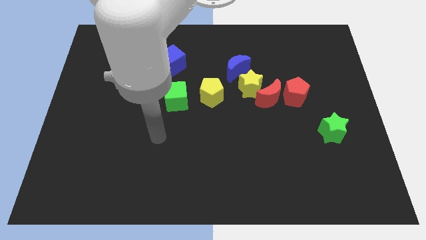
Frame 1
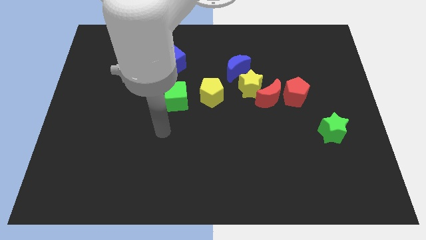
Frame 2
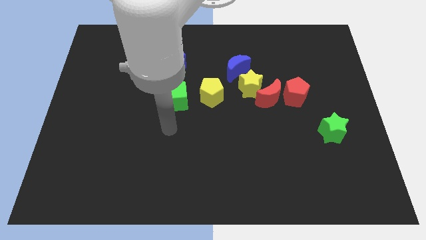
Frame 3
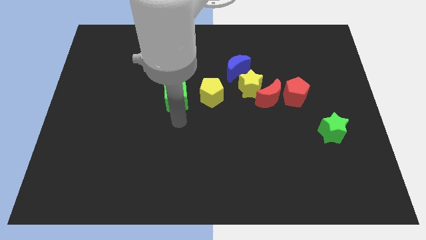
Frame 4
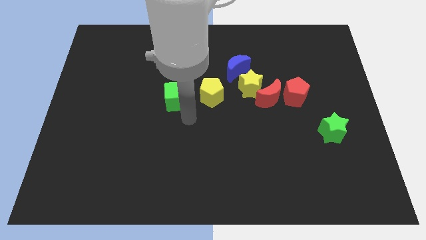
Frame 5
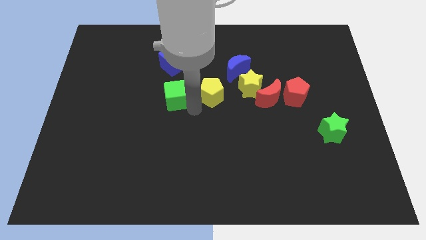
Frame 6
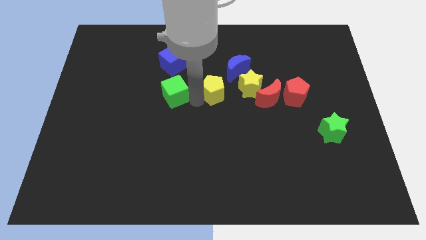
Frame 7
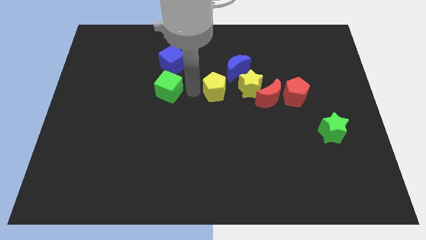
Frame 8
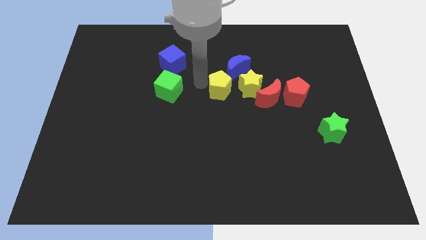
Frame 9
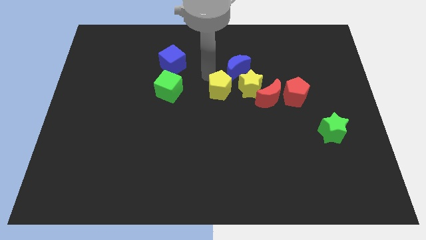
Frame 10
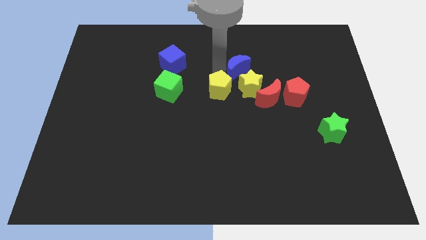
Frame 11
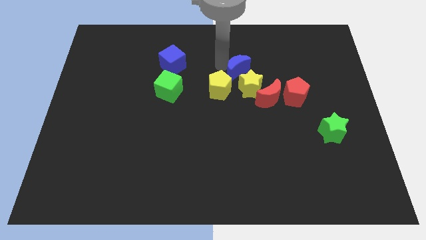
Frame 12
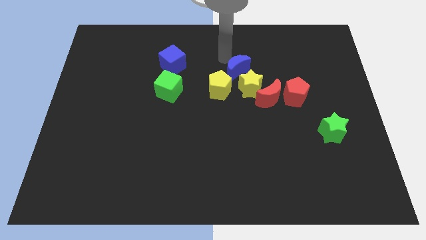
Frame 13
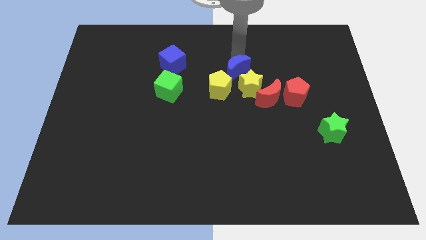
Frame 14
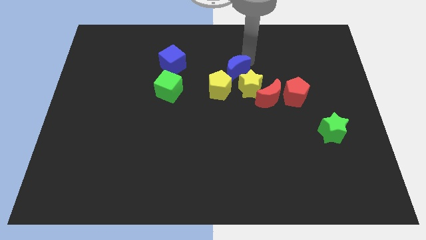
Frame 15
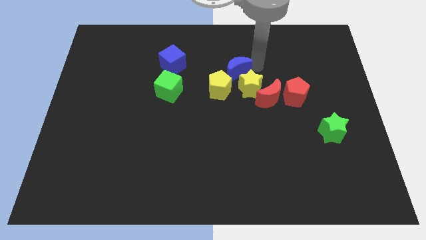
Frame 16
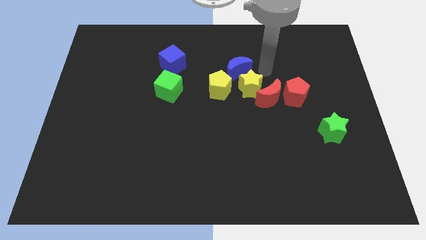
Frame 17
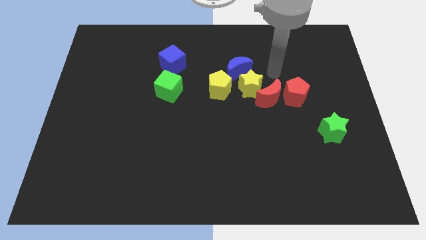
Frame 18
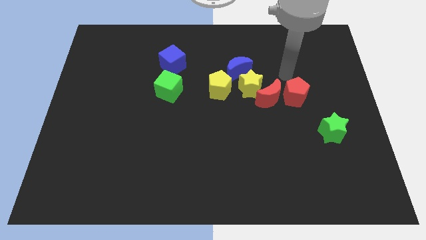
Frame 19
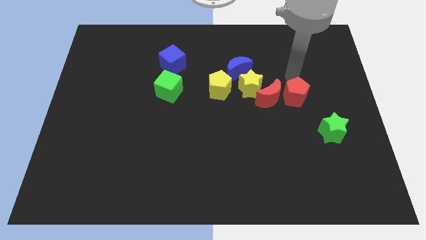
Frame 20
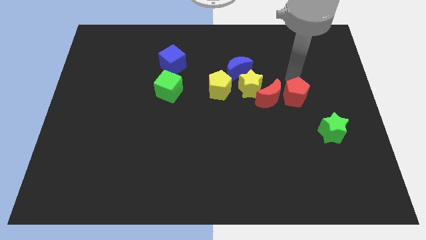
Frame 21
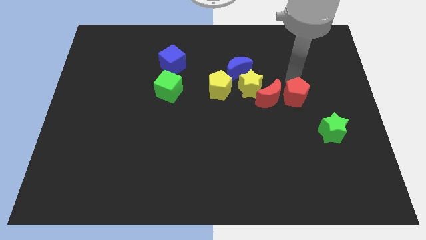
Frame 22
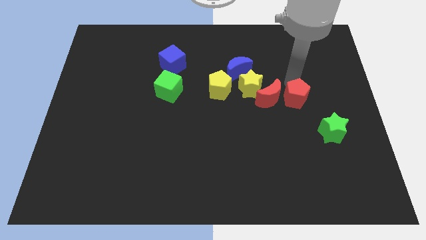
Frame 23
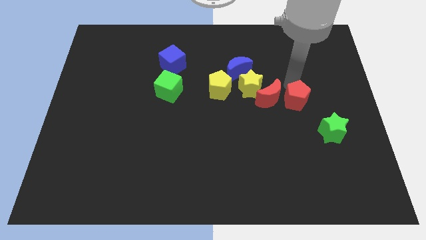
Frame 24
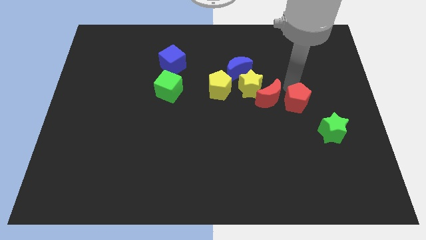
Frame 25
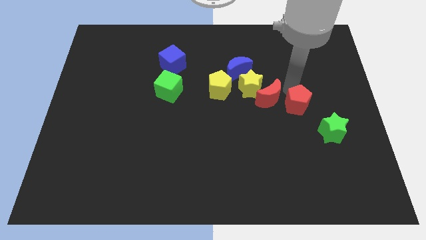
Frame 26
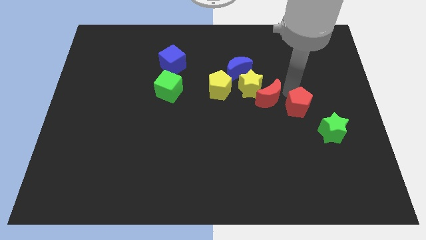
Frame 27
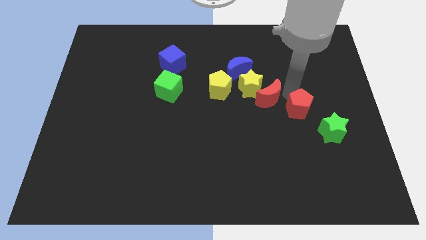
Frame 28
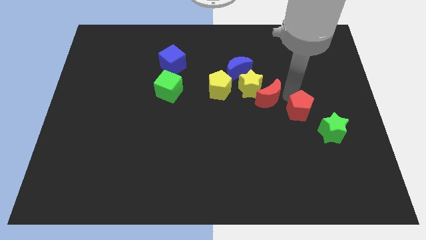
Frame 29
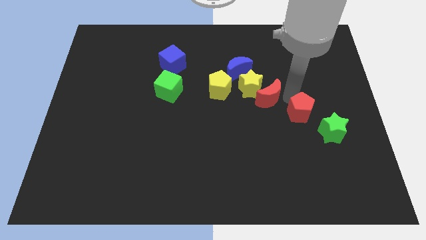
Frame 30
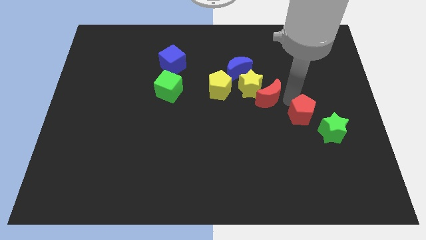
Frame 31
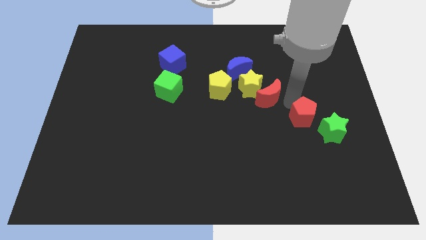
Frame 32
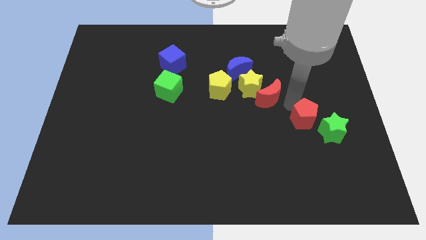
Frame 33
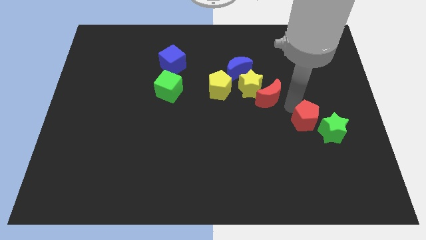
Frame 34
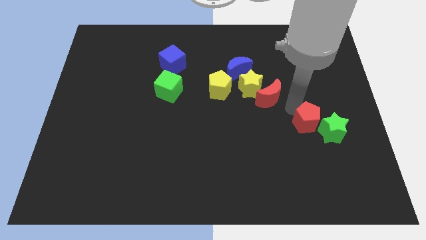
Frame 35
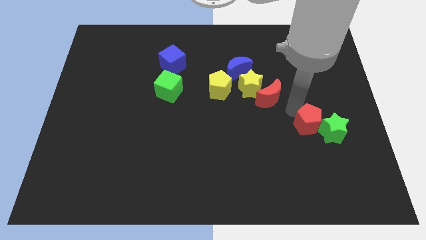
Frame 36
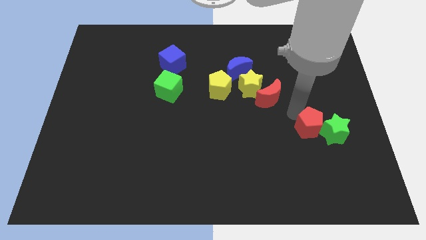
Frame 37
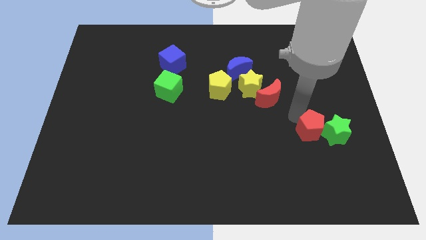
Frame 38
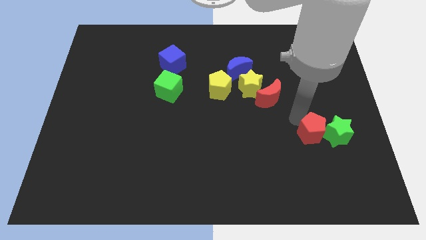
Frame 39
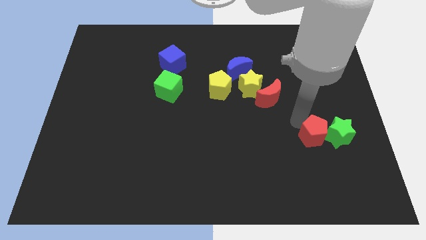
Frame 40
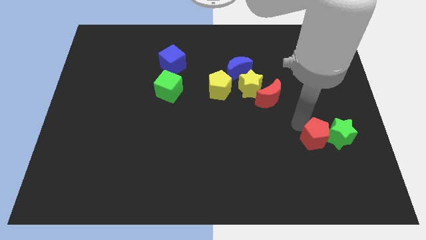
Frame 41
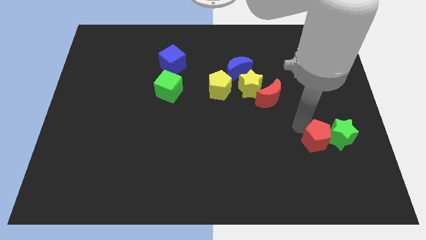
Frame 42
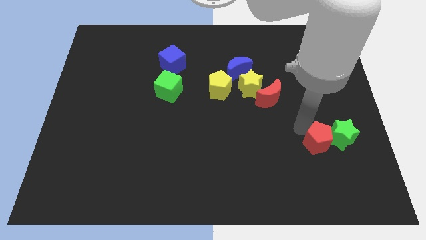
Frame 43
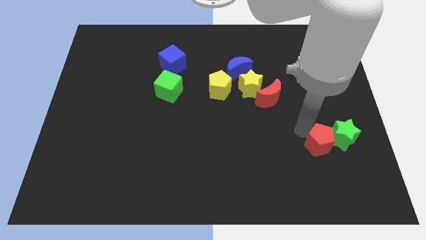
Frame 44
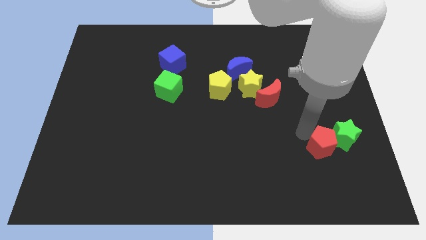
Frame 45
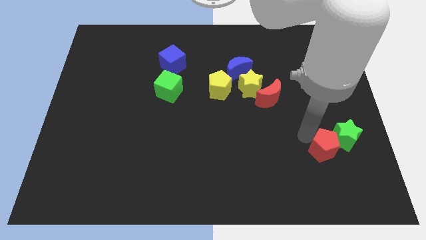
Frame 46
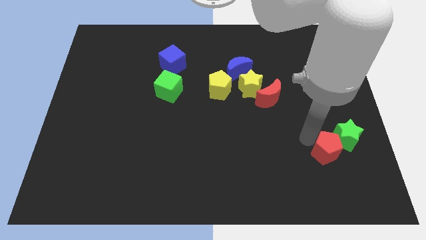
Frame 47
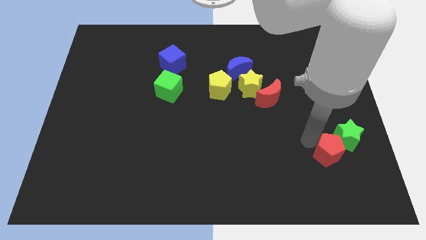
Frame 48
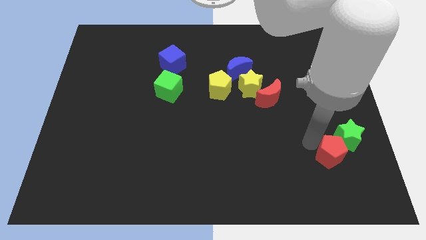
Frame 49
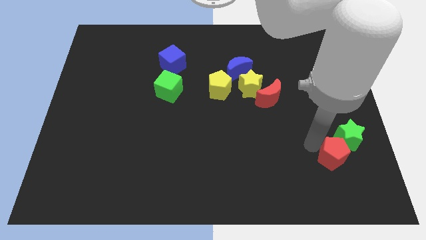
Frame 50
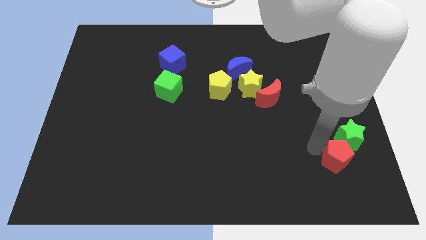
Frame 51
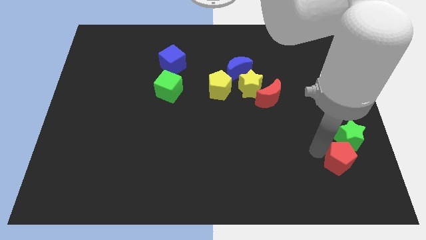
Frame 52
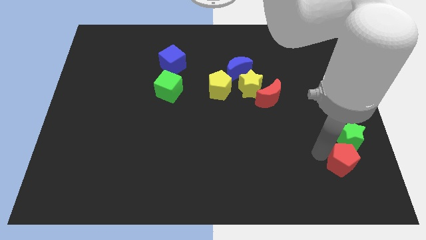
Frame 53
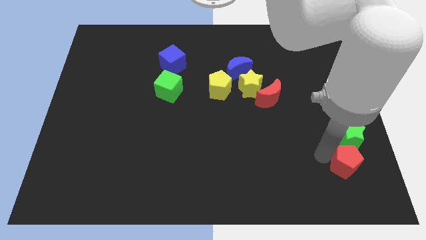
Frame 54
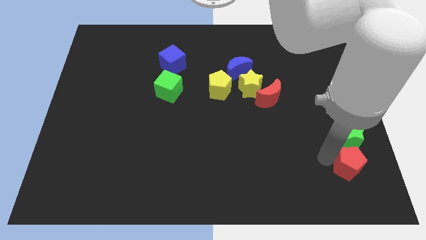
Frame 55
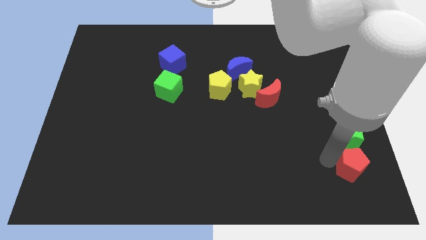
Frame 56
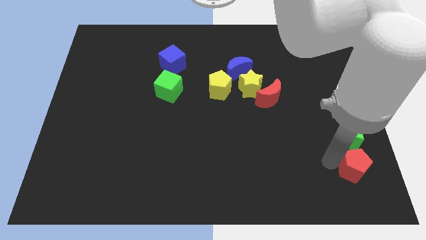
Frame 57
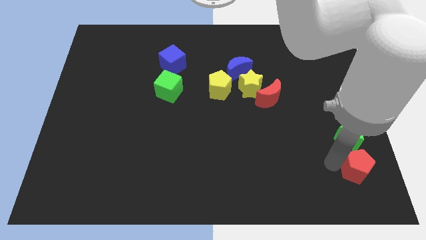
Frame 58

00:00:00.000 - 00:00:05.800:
push the red pentagon to the bottom right
